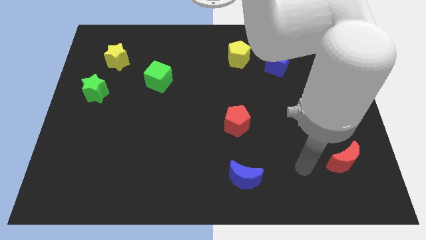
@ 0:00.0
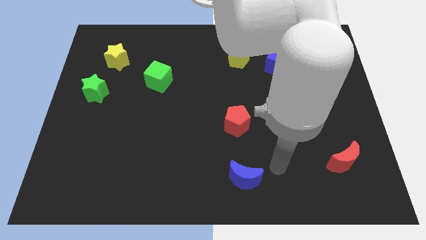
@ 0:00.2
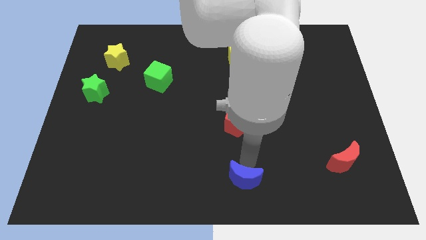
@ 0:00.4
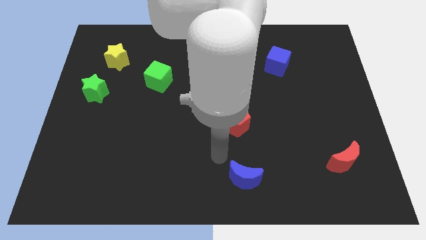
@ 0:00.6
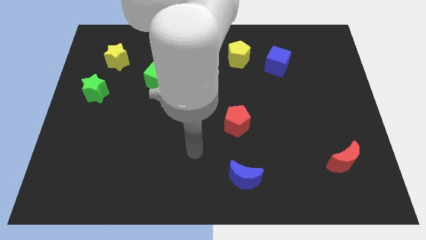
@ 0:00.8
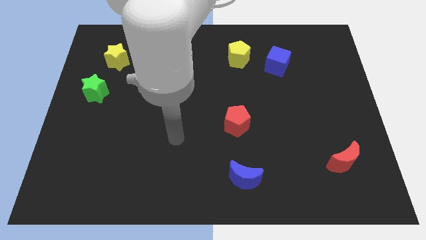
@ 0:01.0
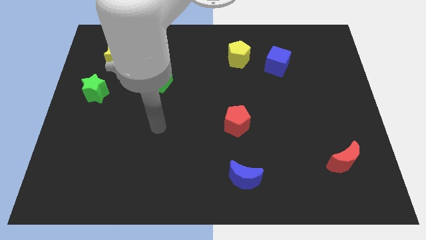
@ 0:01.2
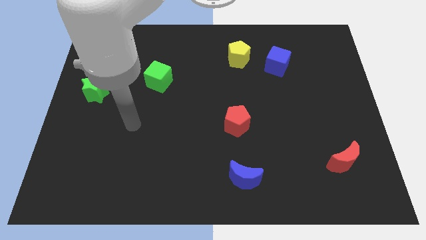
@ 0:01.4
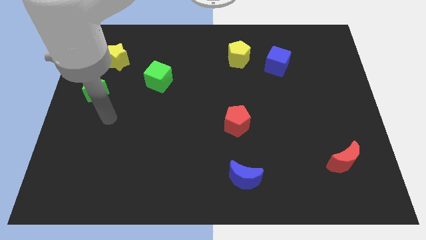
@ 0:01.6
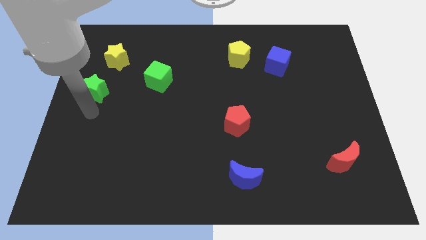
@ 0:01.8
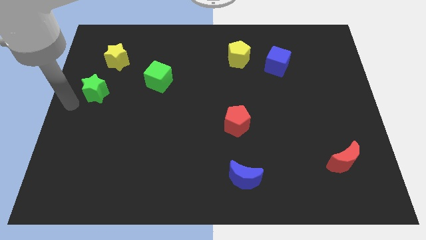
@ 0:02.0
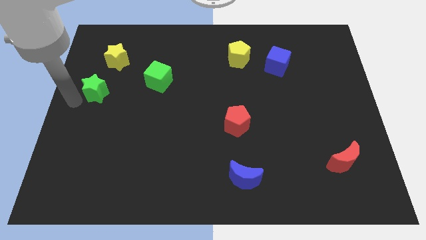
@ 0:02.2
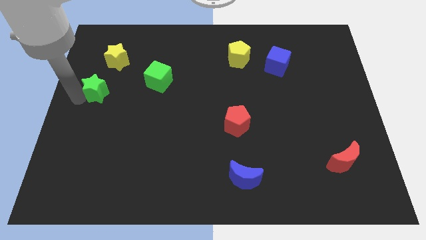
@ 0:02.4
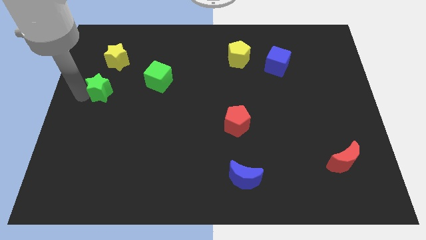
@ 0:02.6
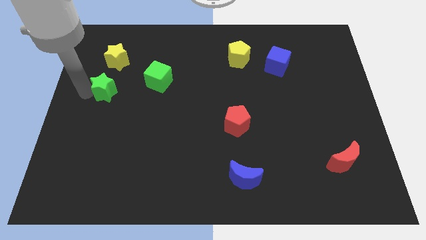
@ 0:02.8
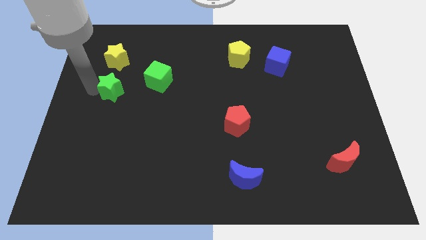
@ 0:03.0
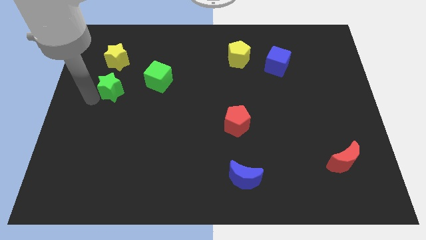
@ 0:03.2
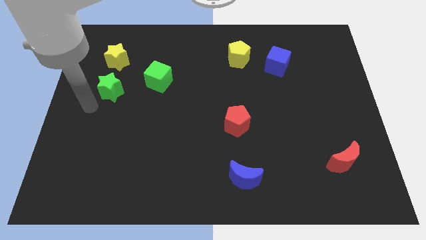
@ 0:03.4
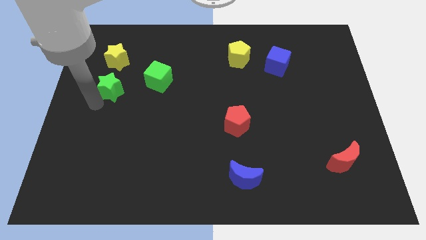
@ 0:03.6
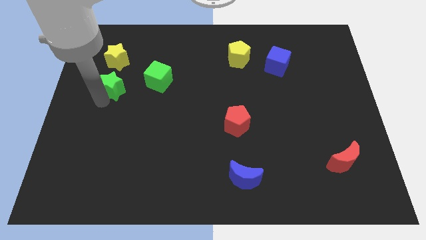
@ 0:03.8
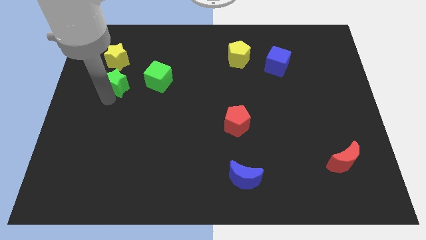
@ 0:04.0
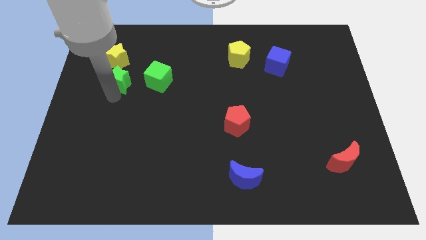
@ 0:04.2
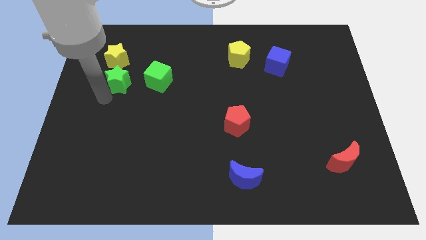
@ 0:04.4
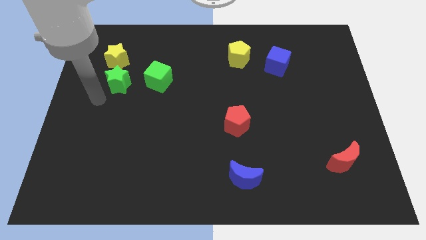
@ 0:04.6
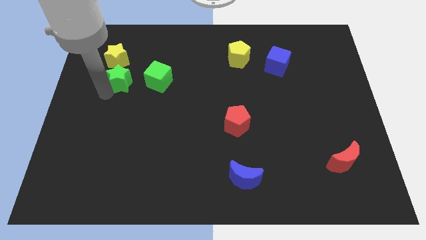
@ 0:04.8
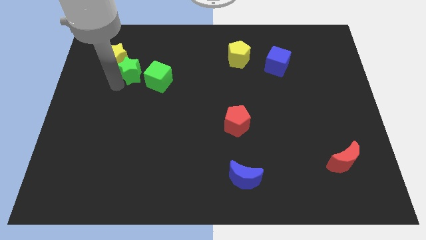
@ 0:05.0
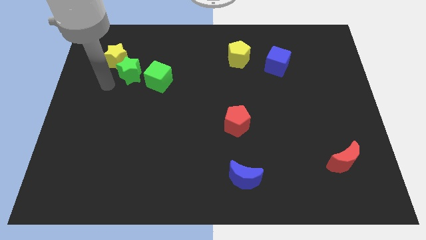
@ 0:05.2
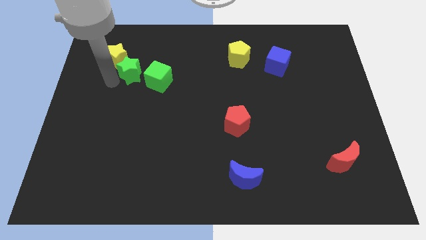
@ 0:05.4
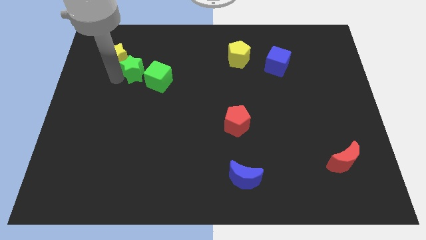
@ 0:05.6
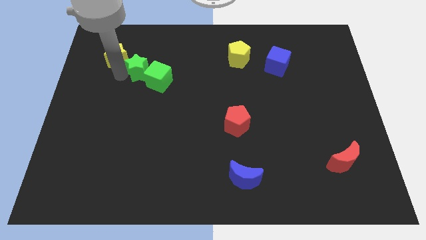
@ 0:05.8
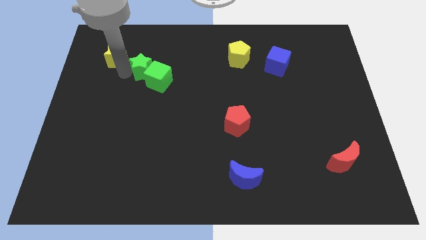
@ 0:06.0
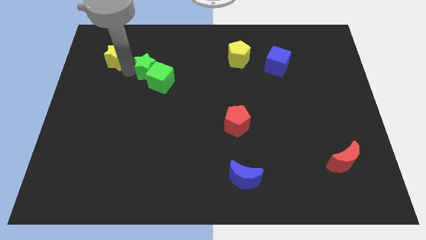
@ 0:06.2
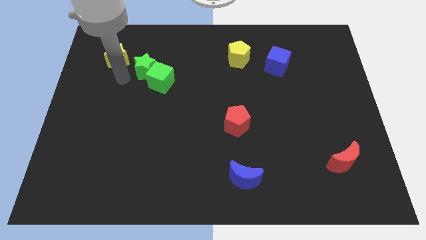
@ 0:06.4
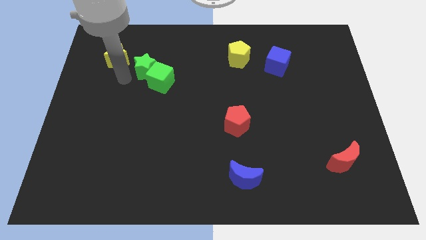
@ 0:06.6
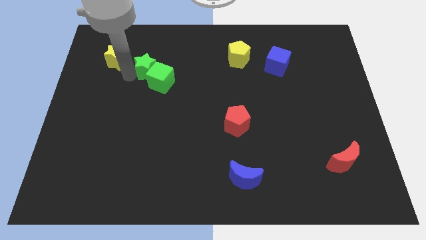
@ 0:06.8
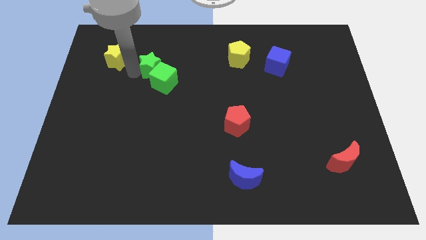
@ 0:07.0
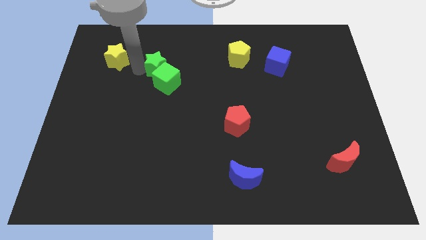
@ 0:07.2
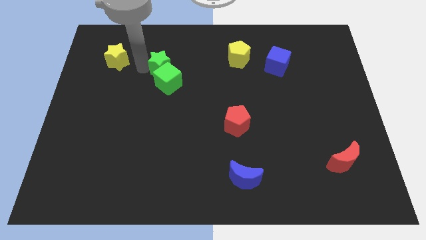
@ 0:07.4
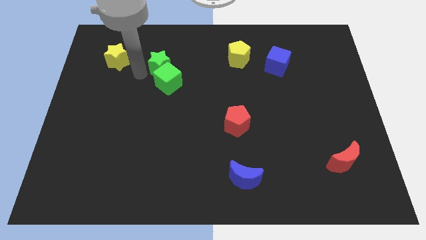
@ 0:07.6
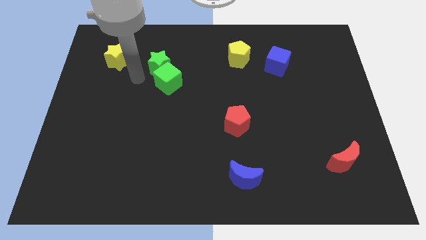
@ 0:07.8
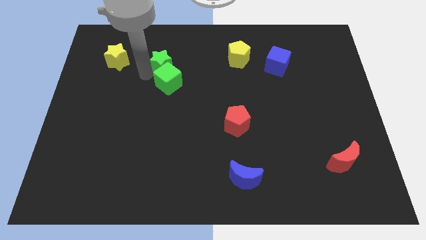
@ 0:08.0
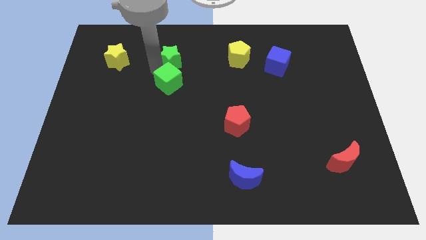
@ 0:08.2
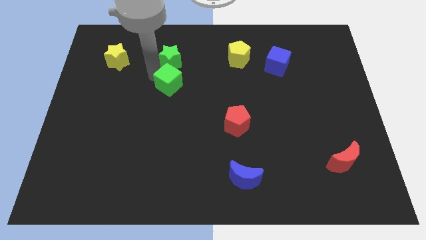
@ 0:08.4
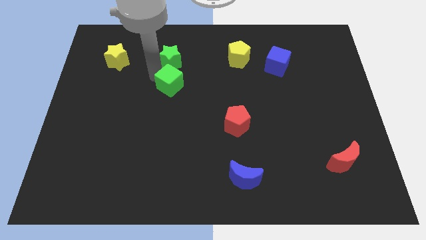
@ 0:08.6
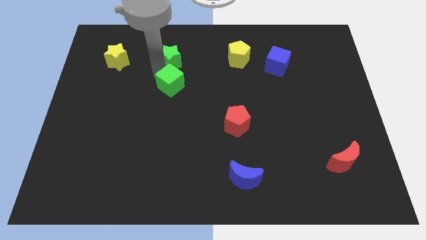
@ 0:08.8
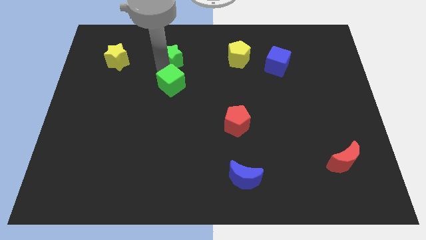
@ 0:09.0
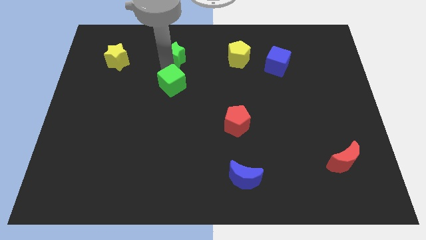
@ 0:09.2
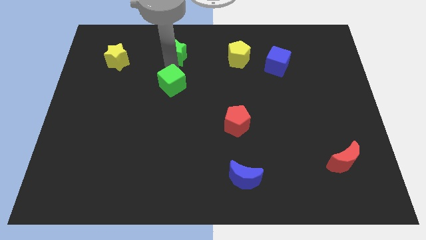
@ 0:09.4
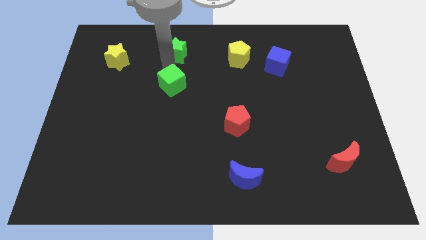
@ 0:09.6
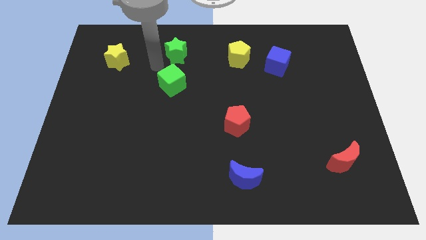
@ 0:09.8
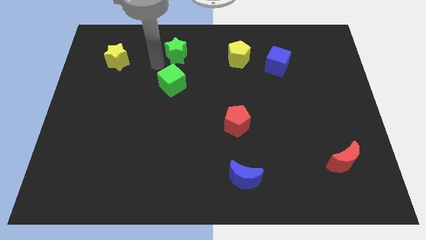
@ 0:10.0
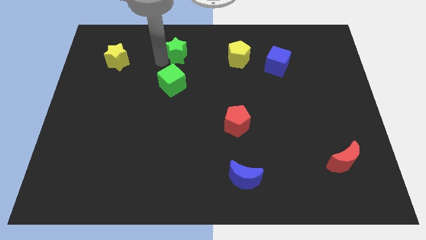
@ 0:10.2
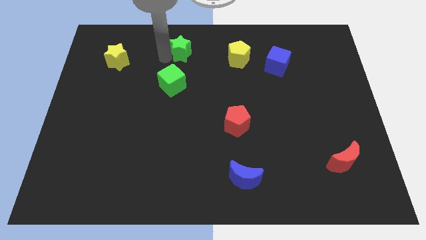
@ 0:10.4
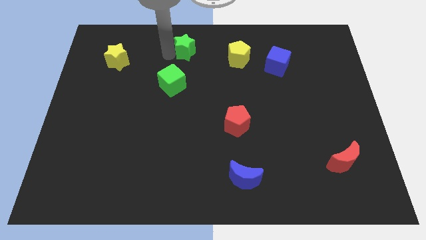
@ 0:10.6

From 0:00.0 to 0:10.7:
push the green star to the top side
